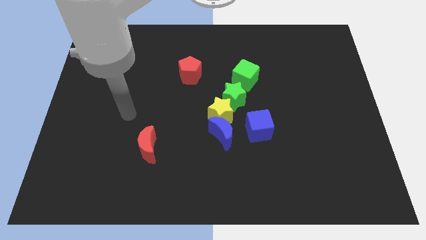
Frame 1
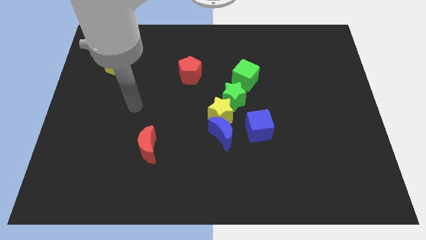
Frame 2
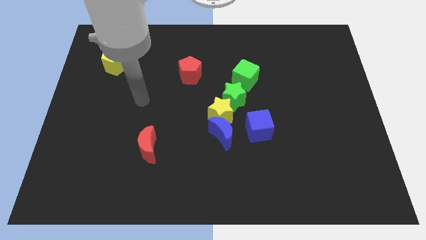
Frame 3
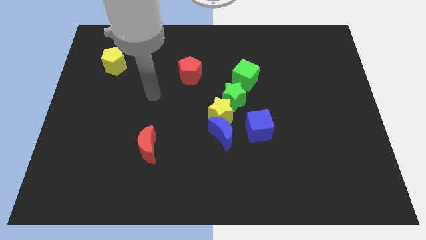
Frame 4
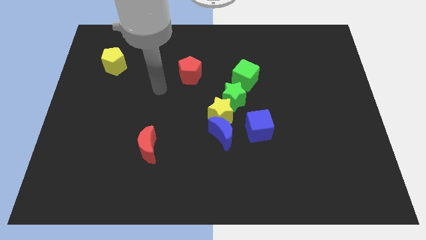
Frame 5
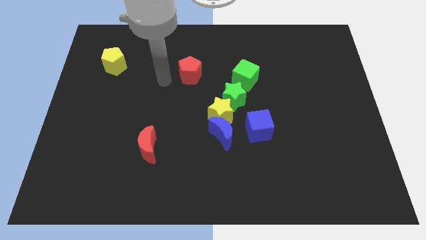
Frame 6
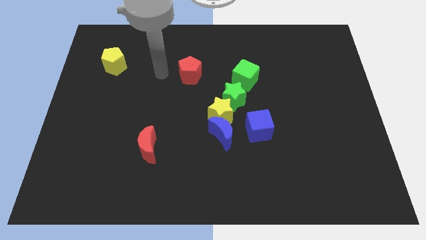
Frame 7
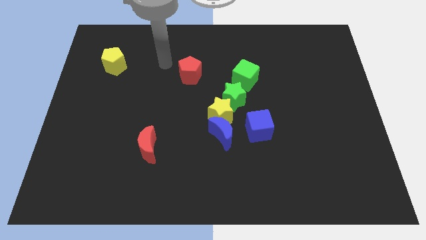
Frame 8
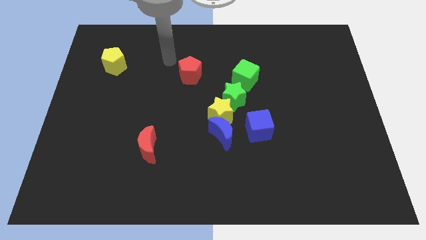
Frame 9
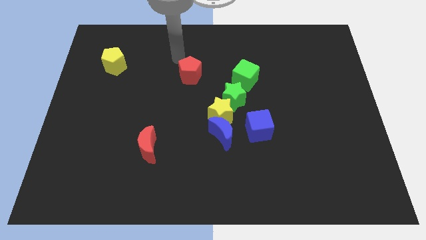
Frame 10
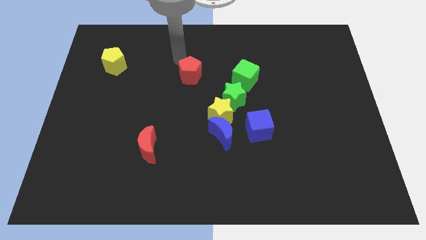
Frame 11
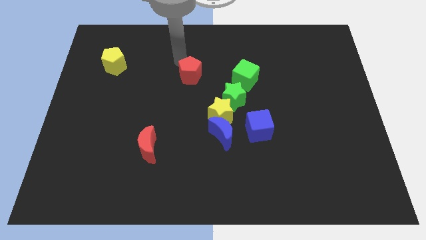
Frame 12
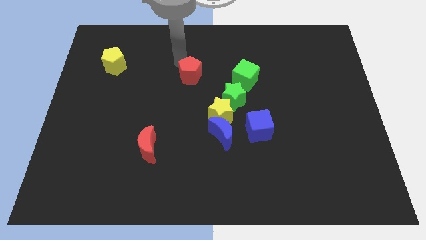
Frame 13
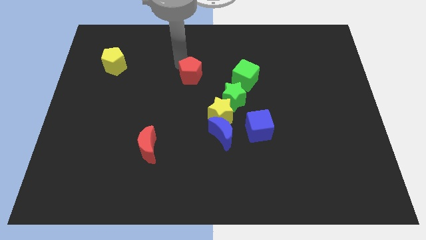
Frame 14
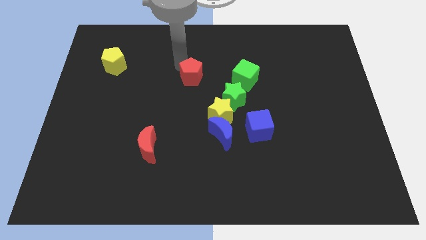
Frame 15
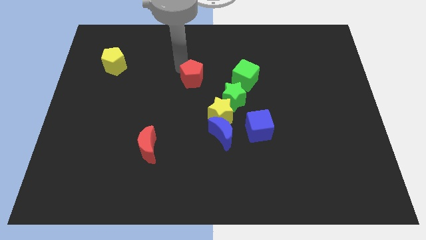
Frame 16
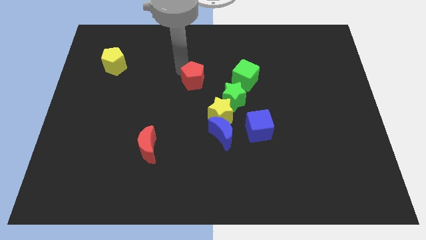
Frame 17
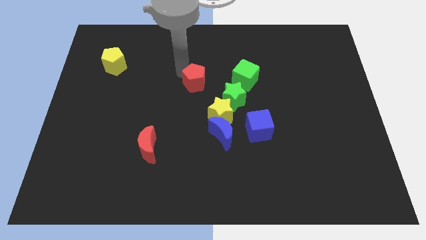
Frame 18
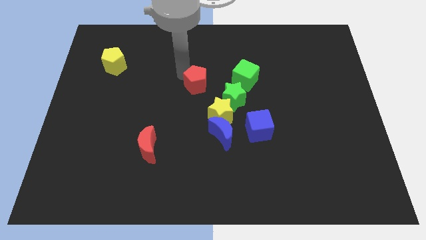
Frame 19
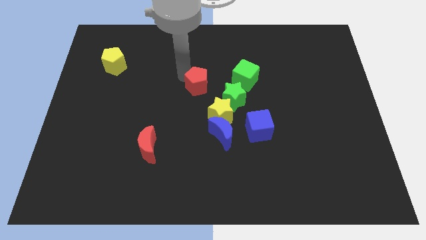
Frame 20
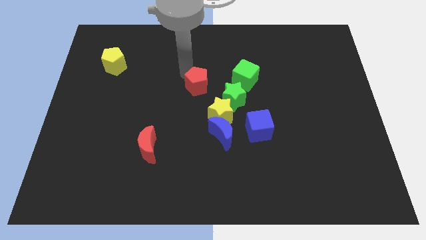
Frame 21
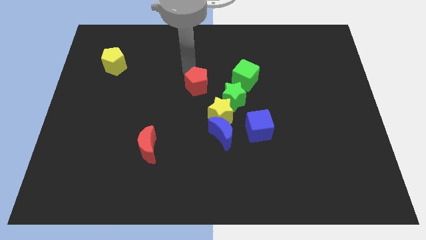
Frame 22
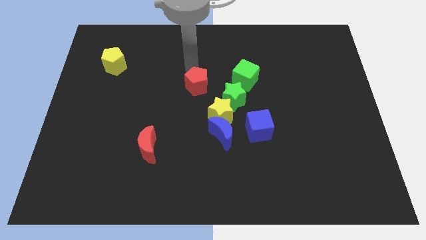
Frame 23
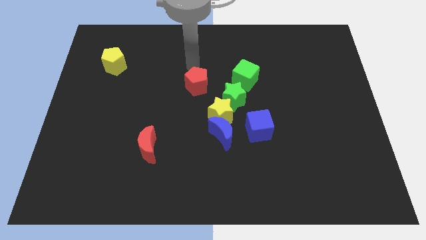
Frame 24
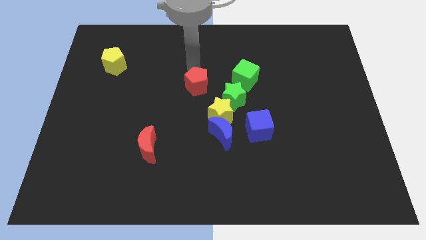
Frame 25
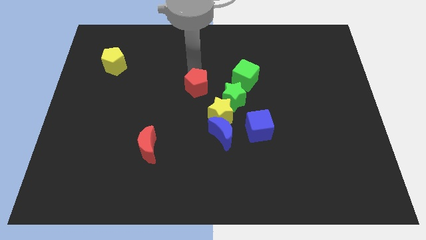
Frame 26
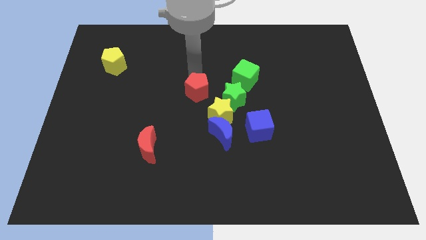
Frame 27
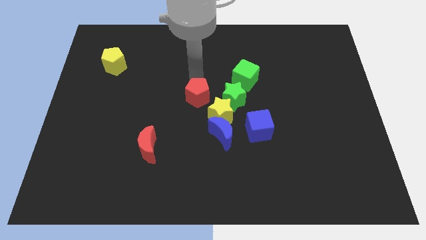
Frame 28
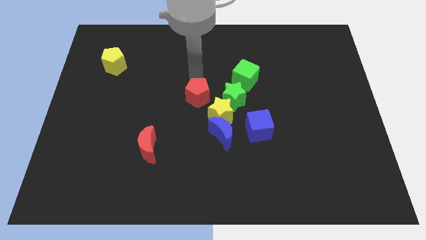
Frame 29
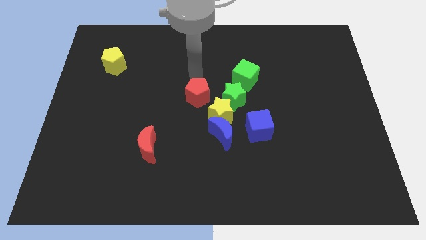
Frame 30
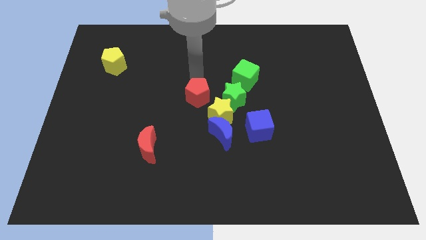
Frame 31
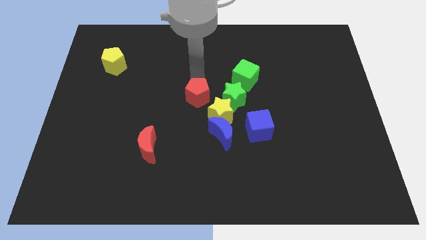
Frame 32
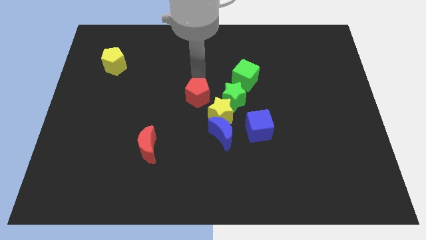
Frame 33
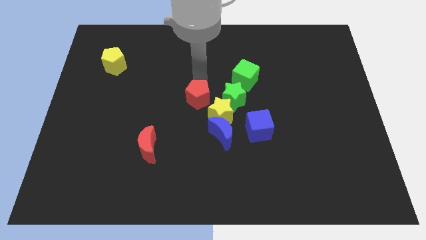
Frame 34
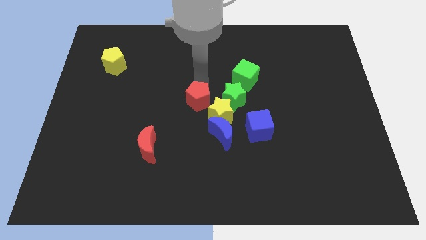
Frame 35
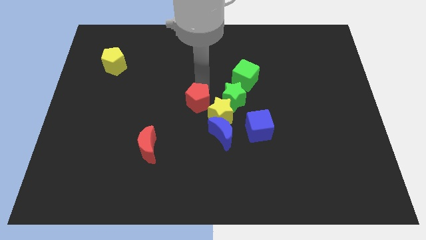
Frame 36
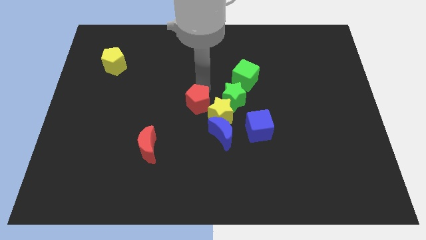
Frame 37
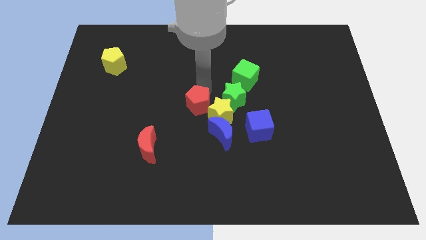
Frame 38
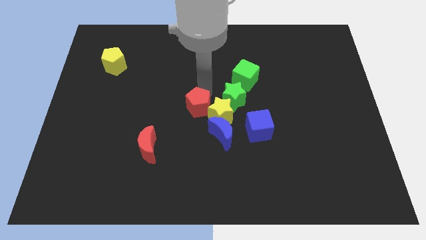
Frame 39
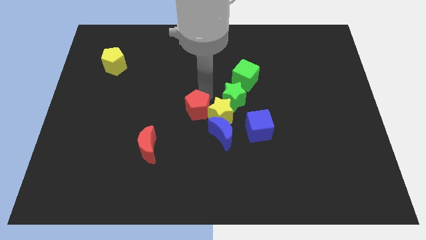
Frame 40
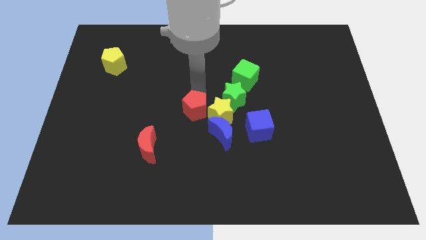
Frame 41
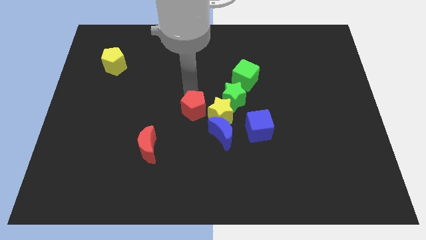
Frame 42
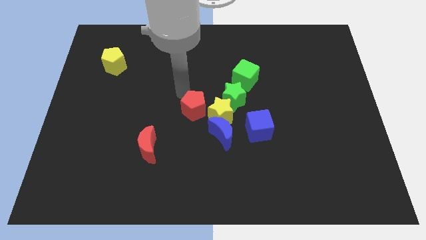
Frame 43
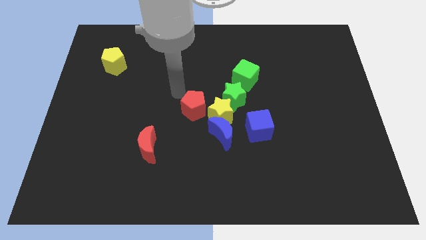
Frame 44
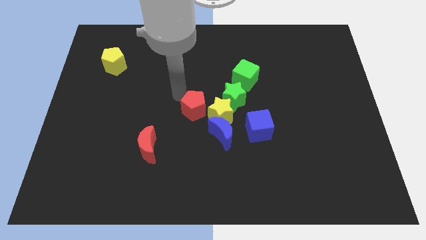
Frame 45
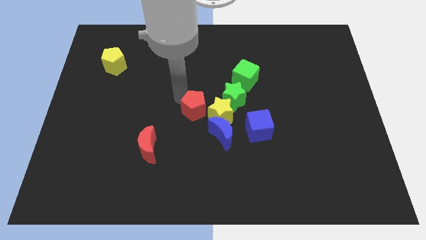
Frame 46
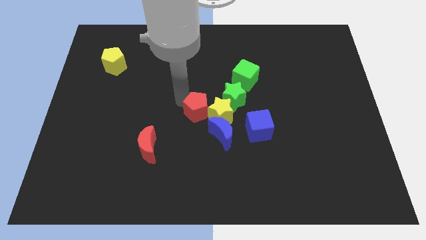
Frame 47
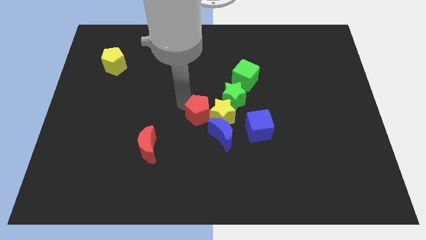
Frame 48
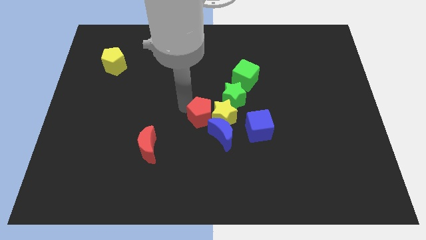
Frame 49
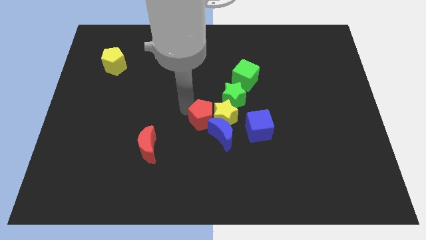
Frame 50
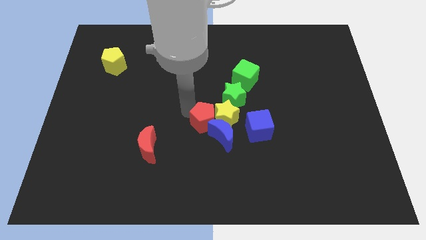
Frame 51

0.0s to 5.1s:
push the red pentagon next to the blue moon

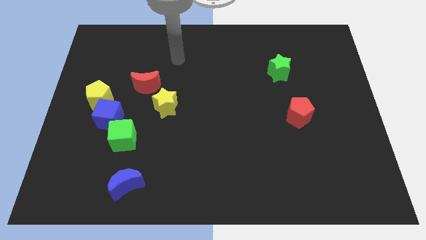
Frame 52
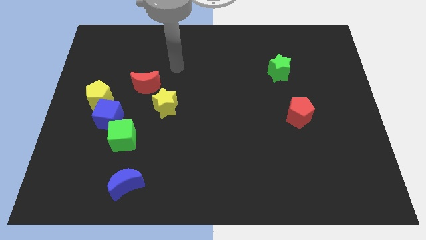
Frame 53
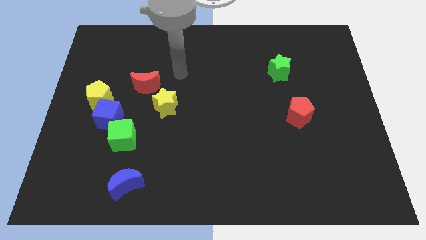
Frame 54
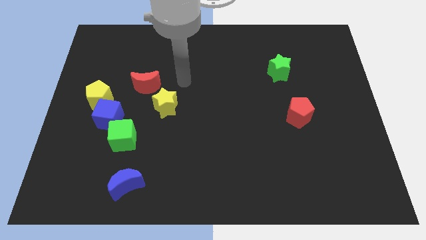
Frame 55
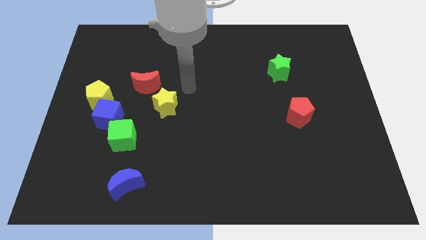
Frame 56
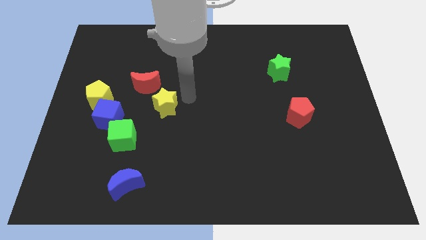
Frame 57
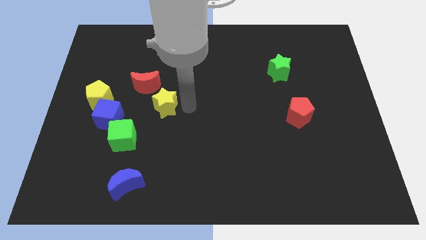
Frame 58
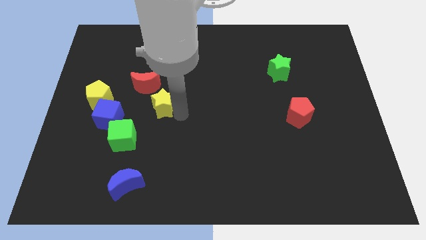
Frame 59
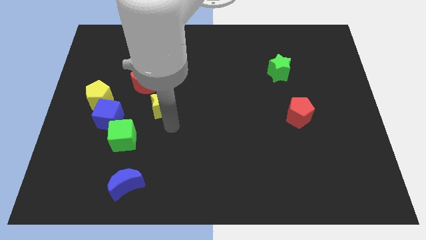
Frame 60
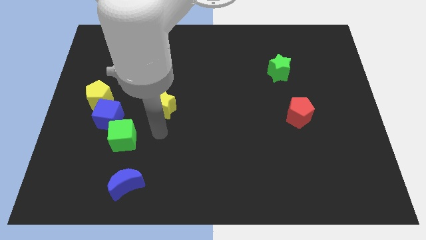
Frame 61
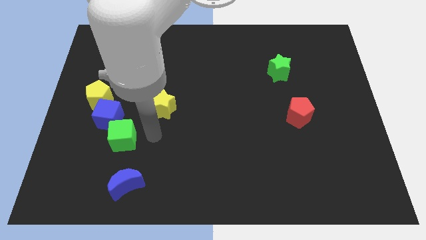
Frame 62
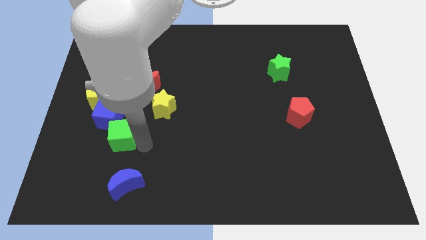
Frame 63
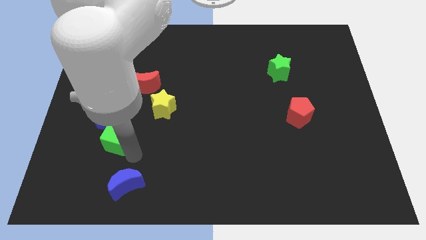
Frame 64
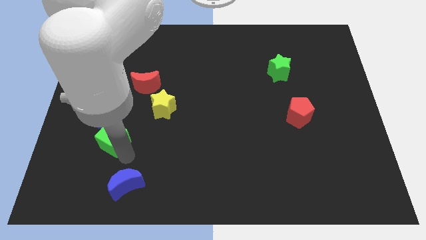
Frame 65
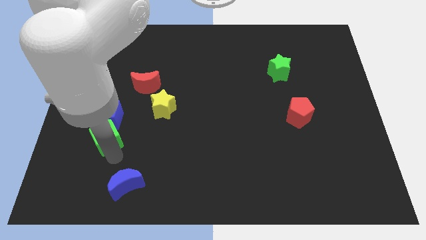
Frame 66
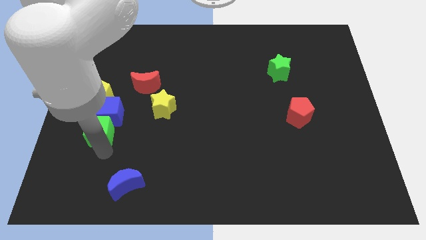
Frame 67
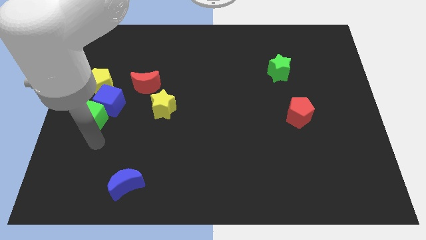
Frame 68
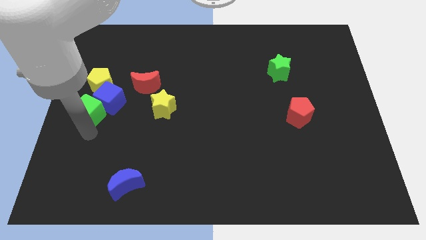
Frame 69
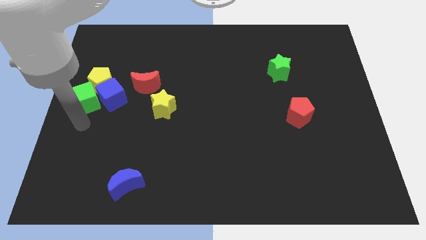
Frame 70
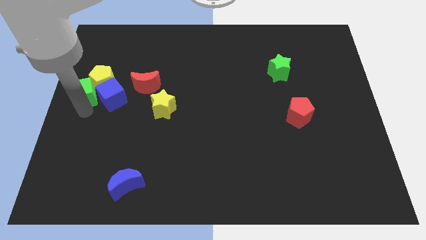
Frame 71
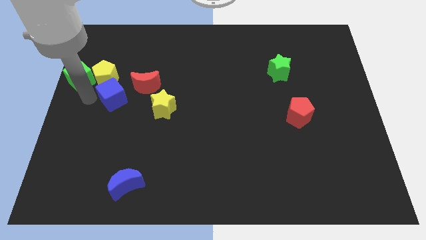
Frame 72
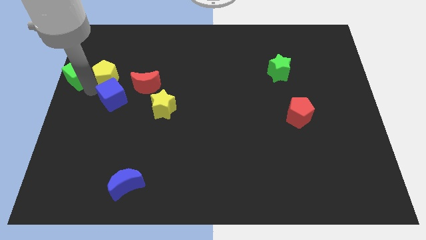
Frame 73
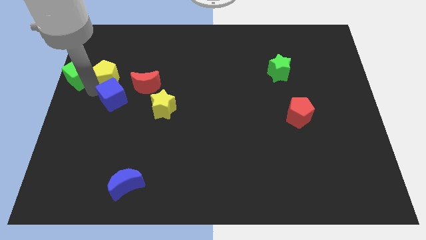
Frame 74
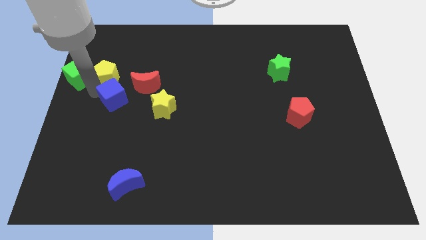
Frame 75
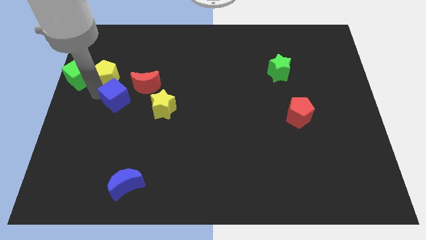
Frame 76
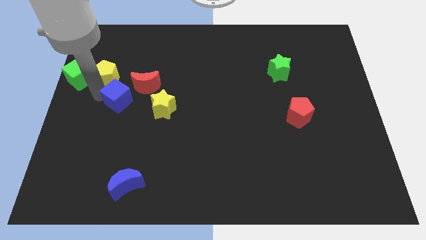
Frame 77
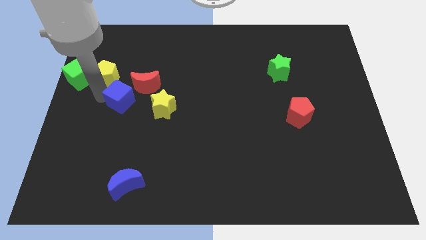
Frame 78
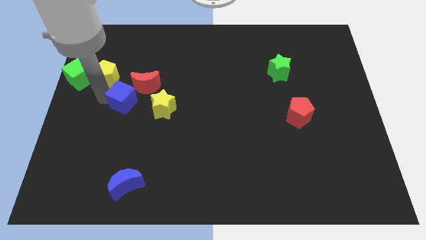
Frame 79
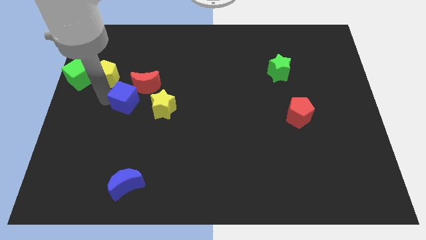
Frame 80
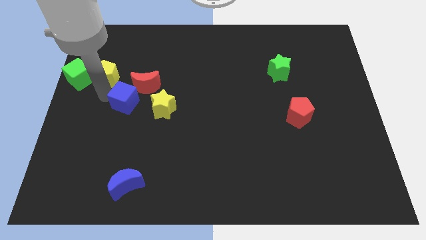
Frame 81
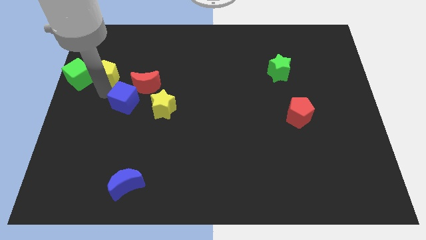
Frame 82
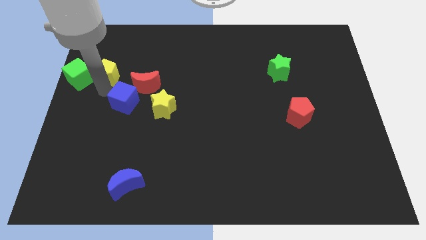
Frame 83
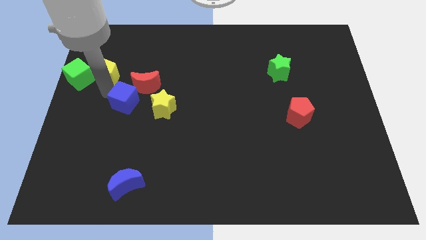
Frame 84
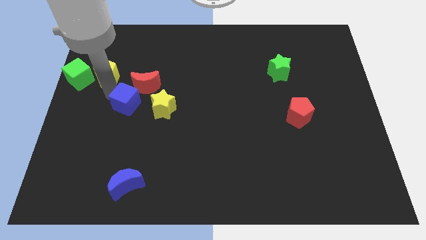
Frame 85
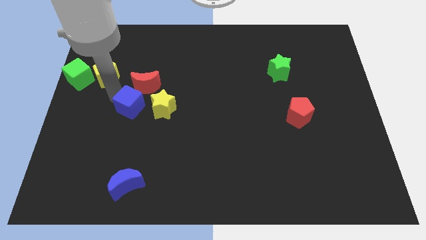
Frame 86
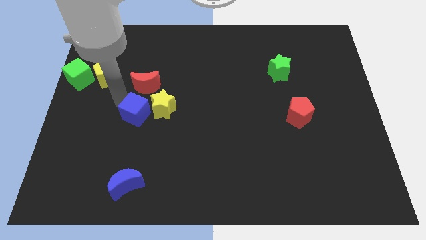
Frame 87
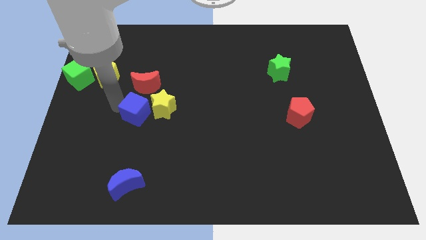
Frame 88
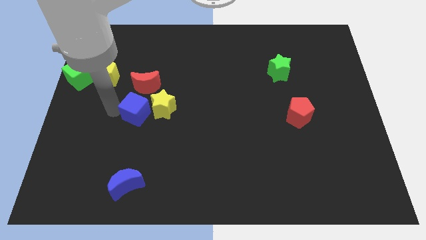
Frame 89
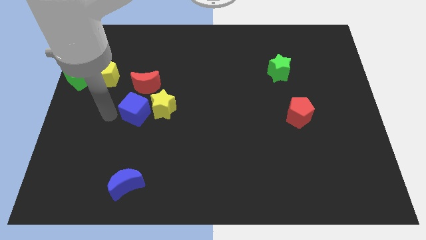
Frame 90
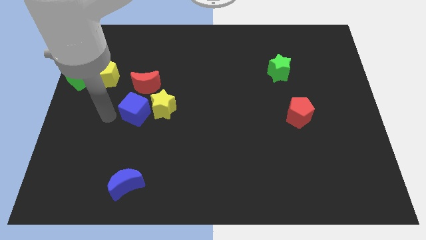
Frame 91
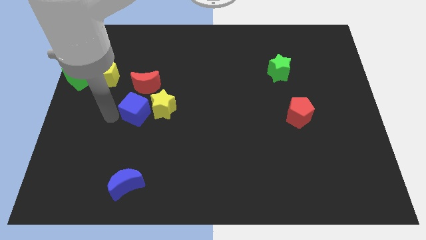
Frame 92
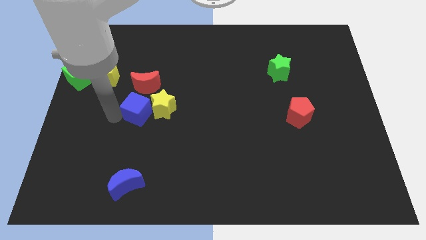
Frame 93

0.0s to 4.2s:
slide the blue cube to the yellow star
